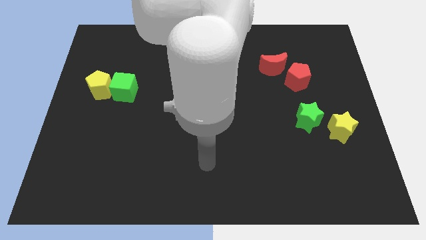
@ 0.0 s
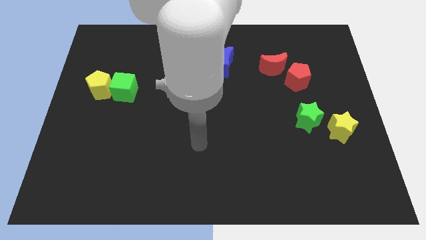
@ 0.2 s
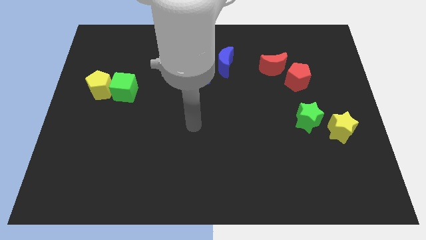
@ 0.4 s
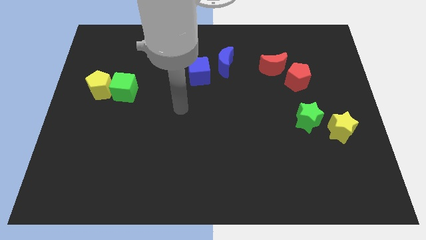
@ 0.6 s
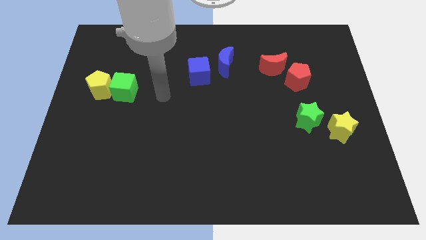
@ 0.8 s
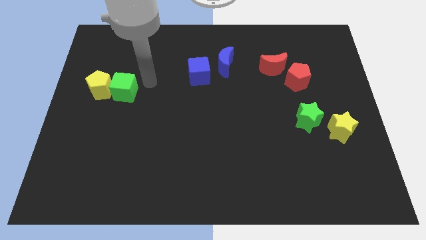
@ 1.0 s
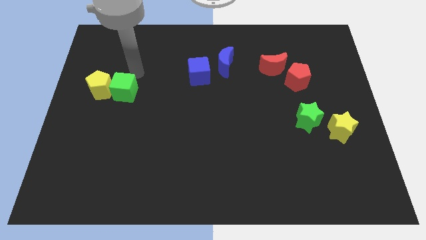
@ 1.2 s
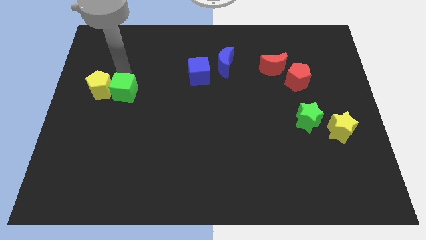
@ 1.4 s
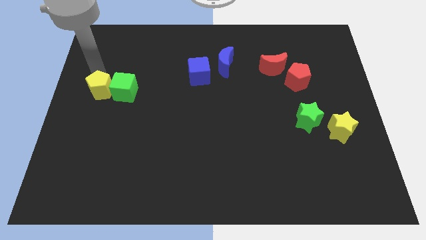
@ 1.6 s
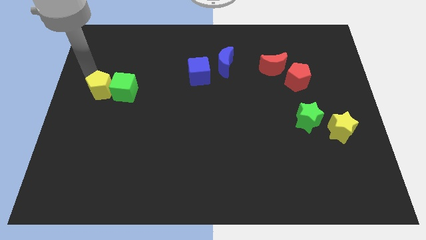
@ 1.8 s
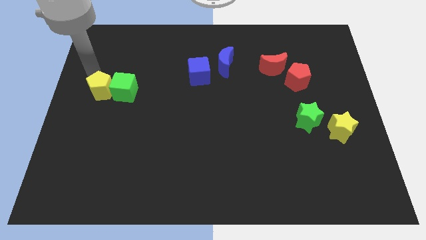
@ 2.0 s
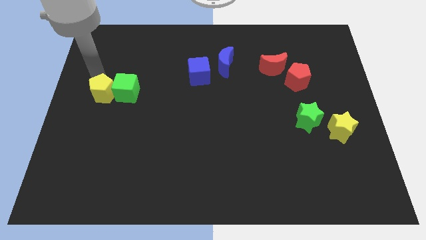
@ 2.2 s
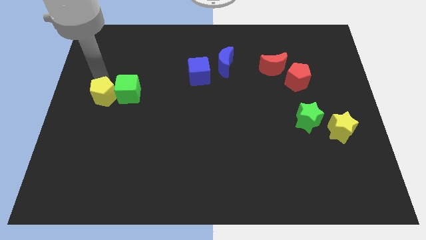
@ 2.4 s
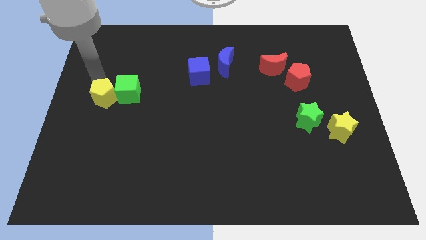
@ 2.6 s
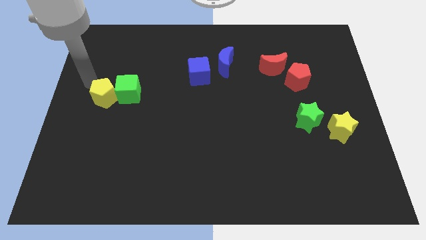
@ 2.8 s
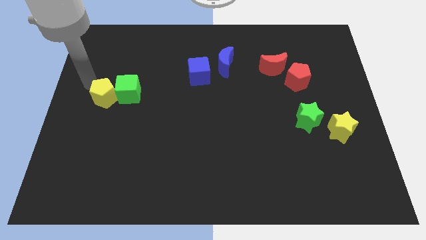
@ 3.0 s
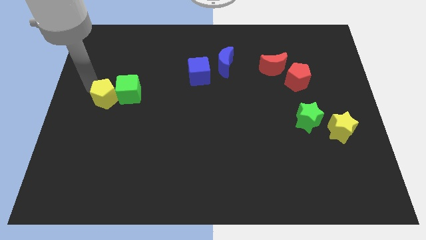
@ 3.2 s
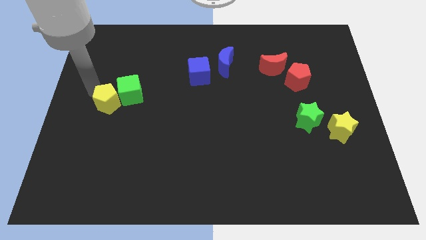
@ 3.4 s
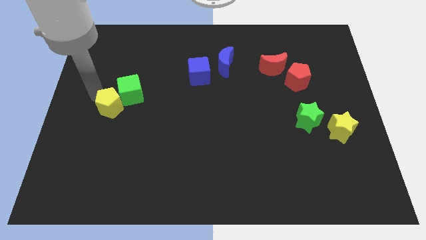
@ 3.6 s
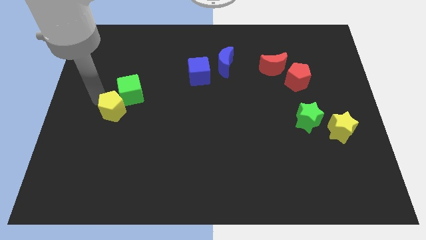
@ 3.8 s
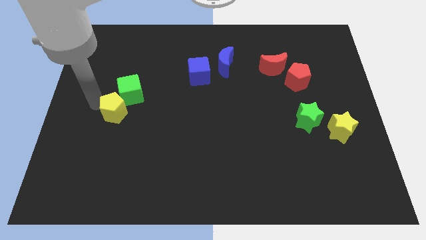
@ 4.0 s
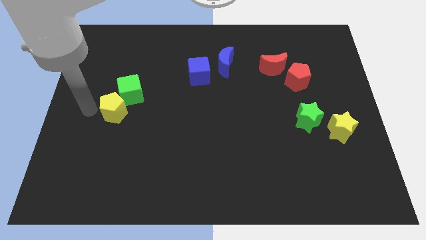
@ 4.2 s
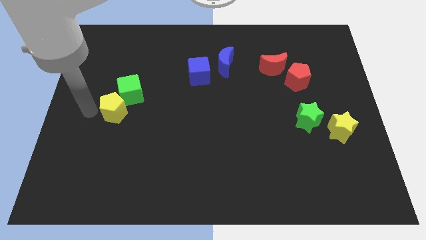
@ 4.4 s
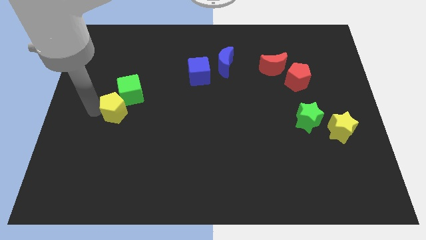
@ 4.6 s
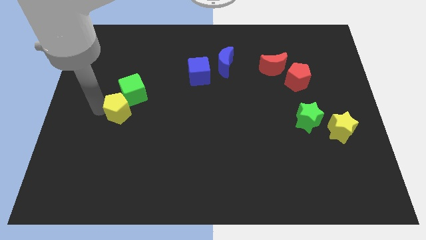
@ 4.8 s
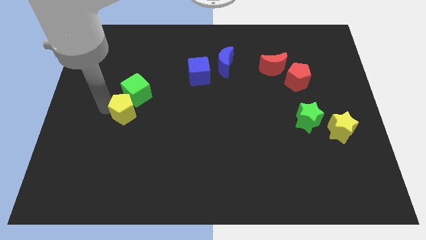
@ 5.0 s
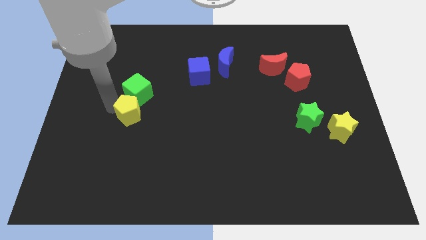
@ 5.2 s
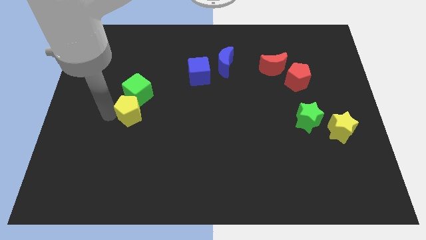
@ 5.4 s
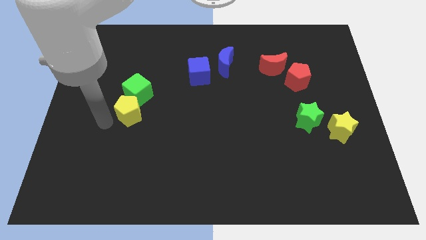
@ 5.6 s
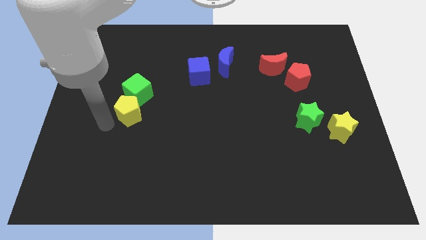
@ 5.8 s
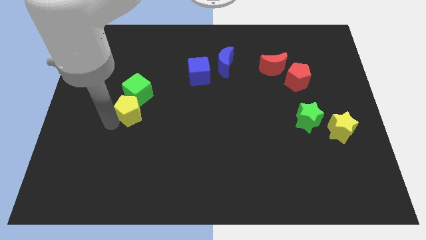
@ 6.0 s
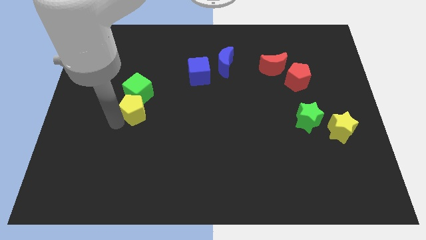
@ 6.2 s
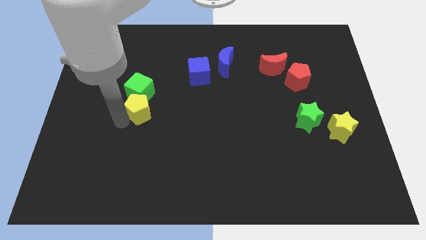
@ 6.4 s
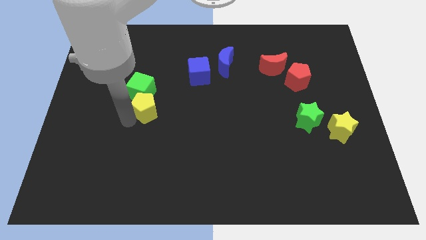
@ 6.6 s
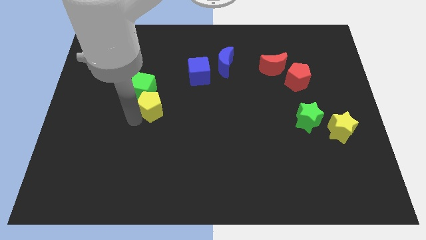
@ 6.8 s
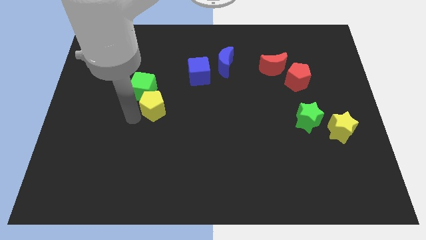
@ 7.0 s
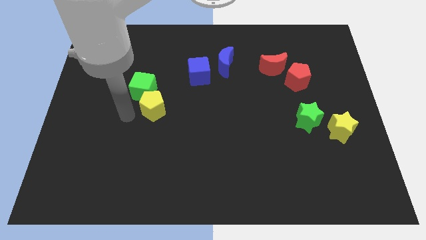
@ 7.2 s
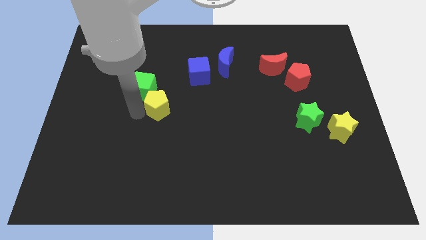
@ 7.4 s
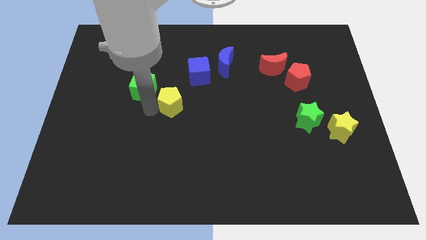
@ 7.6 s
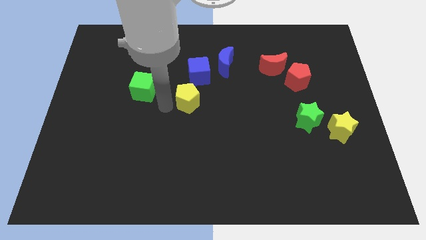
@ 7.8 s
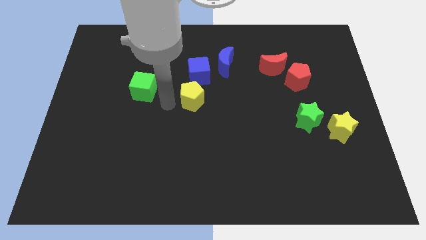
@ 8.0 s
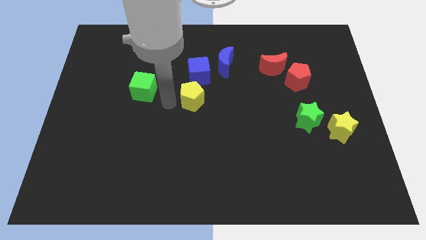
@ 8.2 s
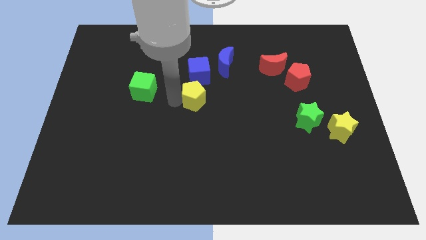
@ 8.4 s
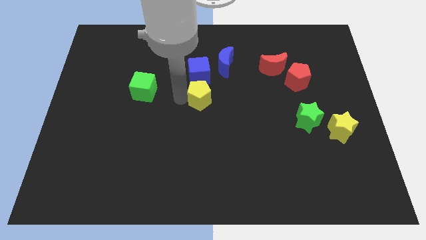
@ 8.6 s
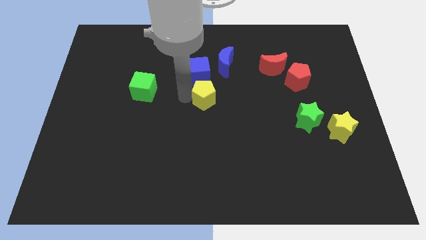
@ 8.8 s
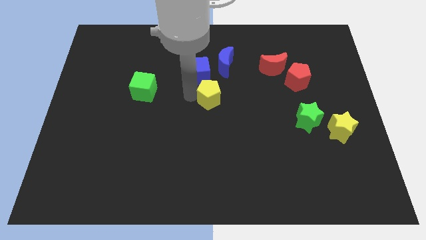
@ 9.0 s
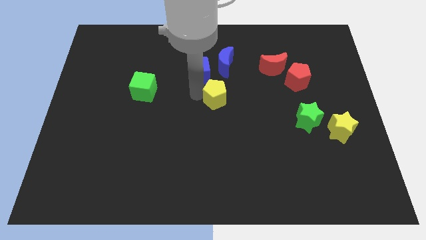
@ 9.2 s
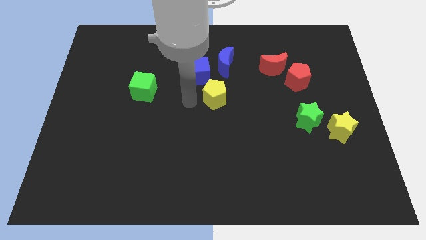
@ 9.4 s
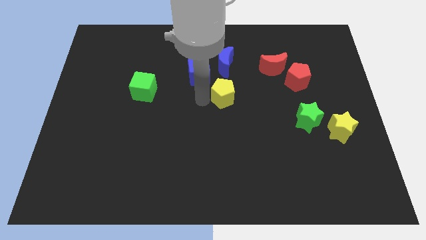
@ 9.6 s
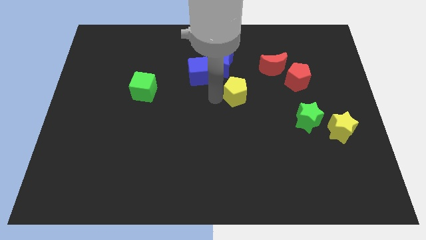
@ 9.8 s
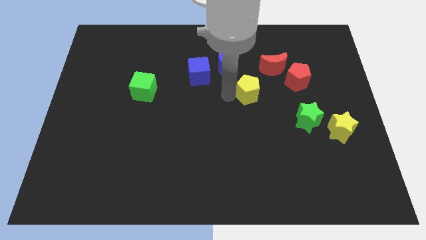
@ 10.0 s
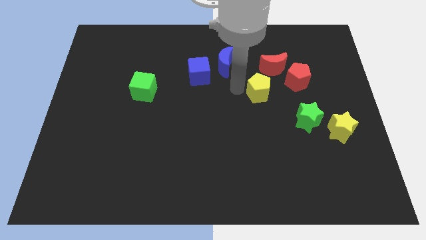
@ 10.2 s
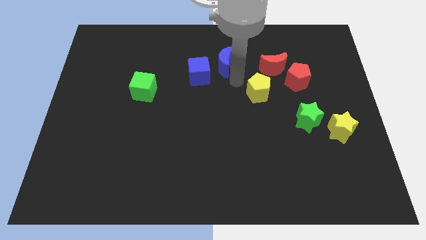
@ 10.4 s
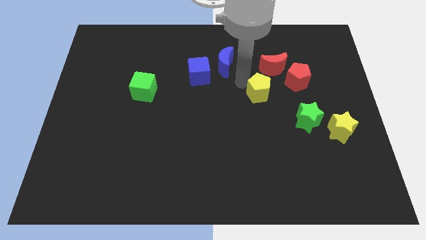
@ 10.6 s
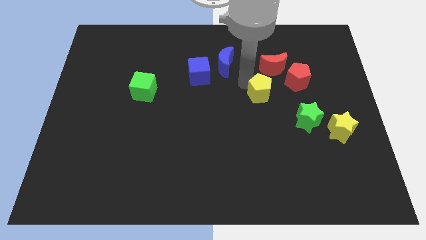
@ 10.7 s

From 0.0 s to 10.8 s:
push the yellow pentagon to the top left side of the green star

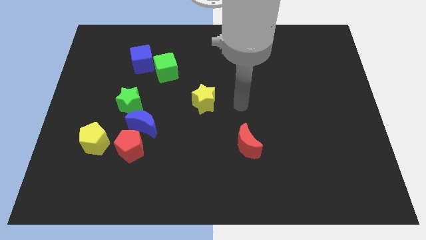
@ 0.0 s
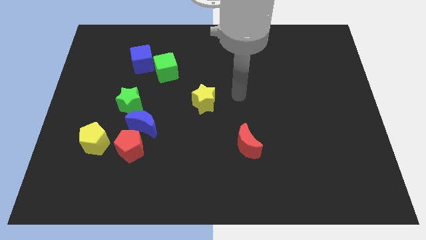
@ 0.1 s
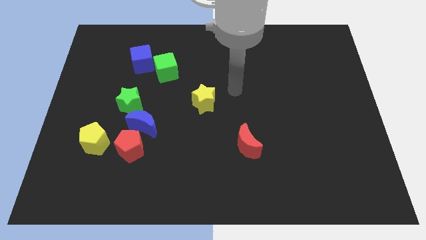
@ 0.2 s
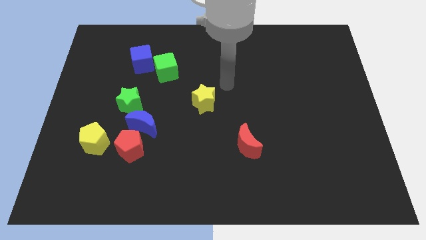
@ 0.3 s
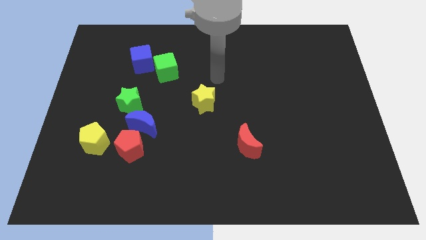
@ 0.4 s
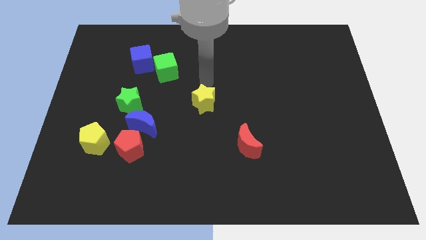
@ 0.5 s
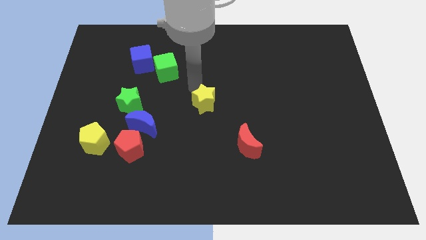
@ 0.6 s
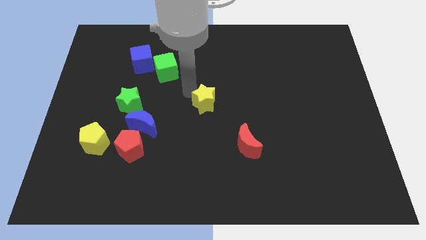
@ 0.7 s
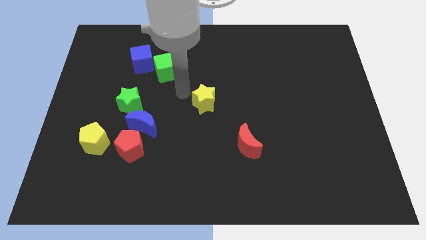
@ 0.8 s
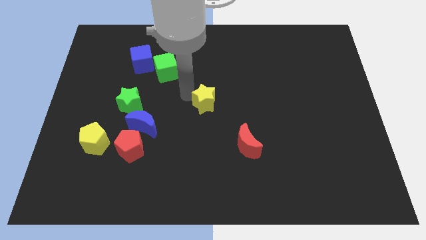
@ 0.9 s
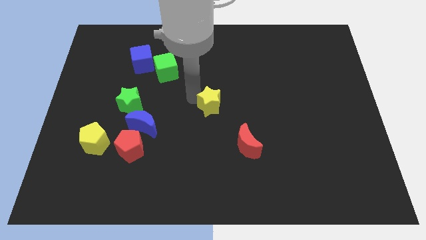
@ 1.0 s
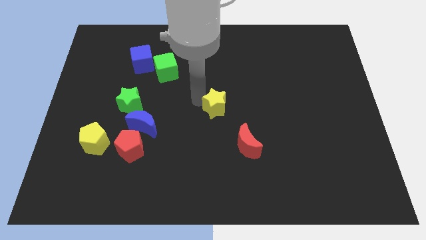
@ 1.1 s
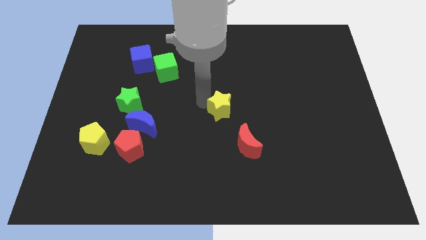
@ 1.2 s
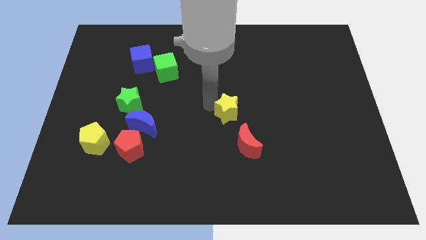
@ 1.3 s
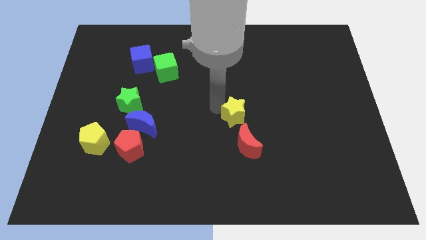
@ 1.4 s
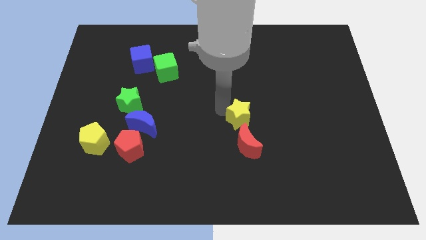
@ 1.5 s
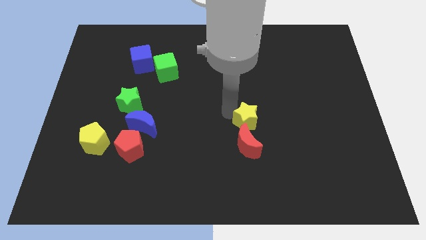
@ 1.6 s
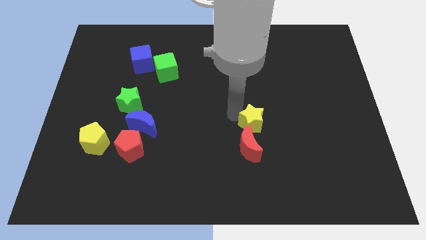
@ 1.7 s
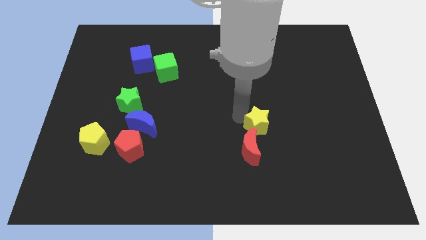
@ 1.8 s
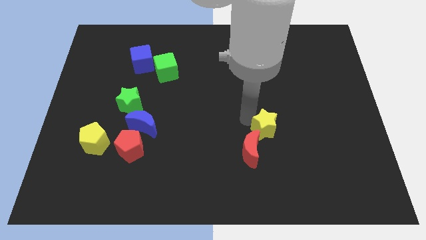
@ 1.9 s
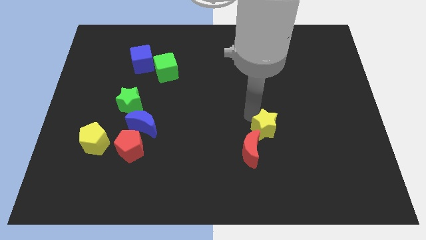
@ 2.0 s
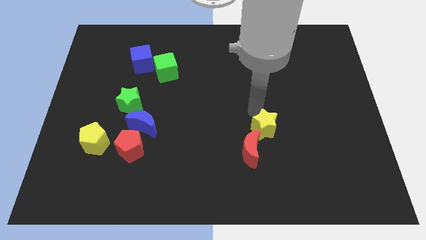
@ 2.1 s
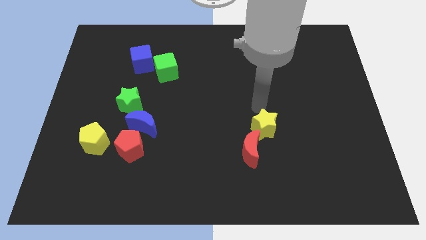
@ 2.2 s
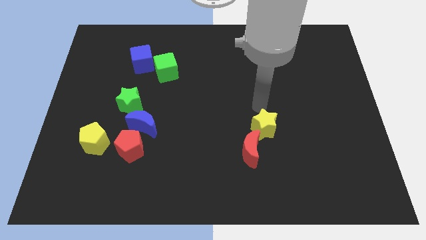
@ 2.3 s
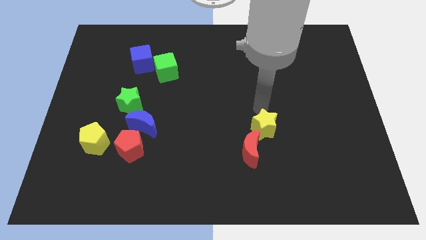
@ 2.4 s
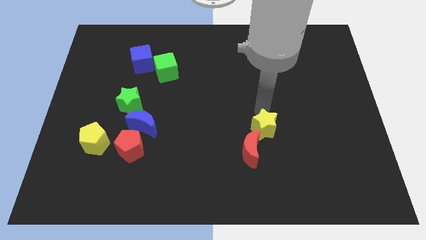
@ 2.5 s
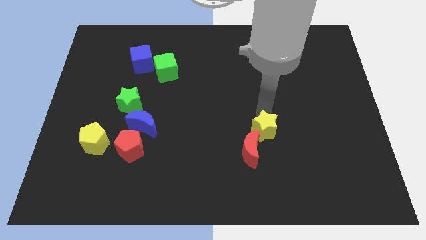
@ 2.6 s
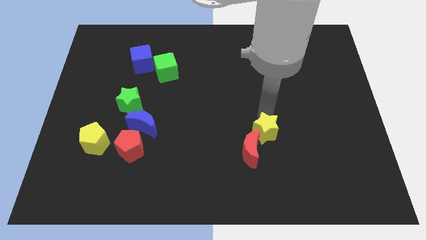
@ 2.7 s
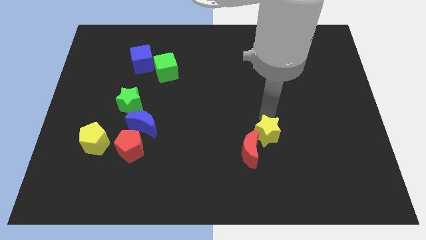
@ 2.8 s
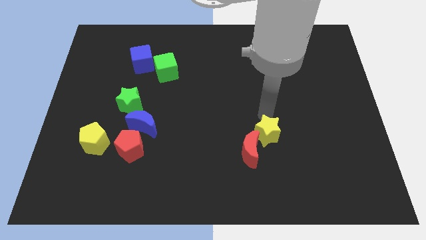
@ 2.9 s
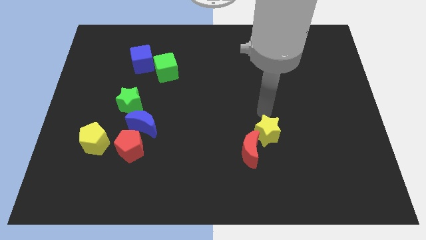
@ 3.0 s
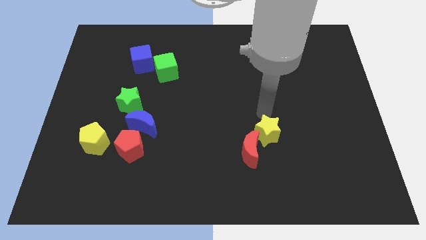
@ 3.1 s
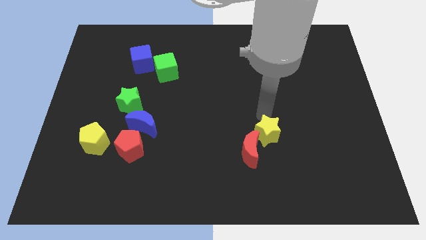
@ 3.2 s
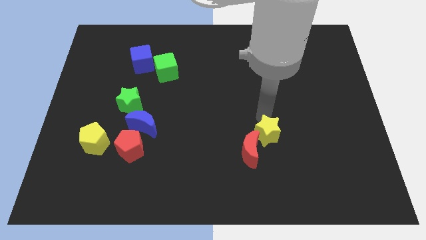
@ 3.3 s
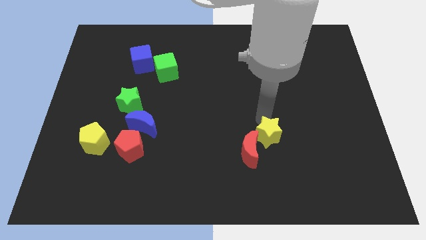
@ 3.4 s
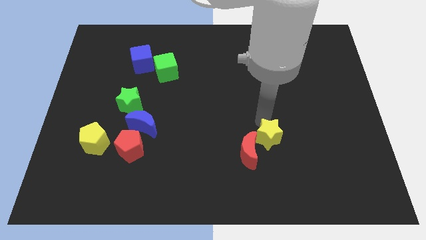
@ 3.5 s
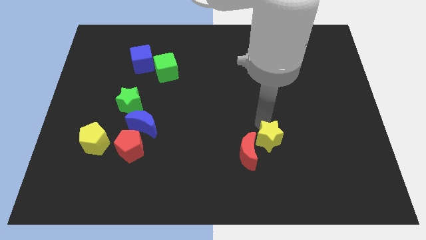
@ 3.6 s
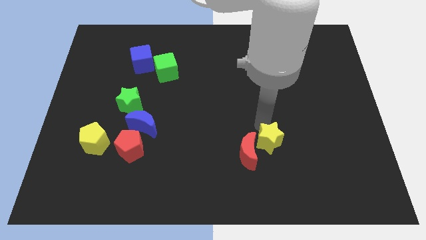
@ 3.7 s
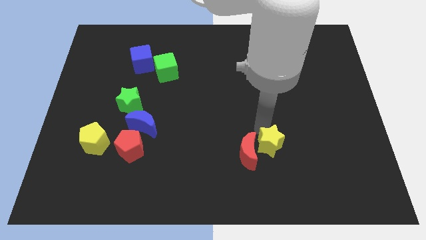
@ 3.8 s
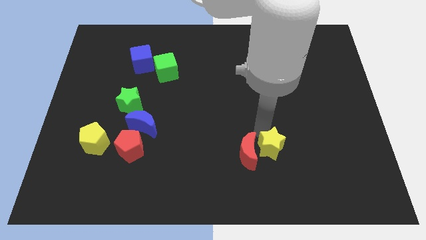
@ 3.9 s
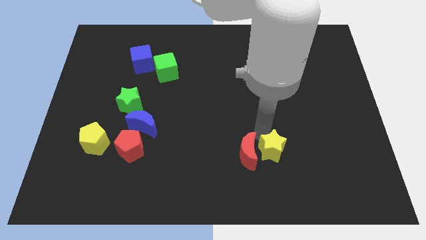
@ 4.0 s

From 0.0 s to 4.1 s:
push the yellow star to the bottom right of the red moon
